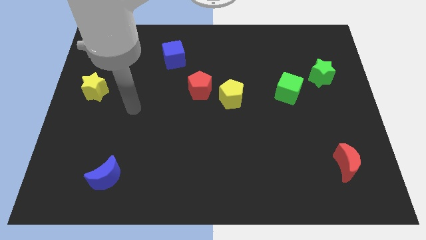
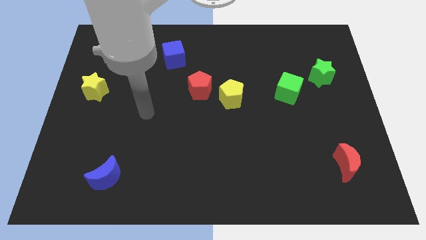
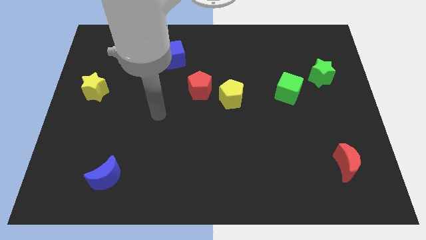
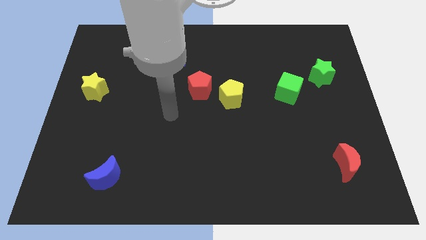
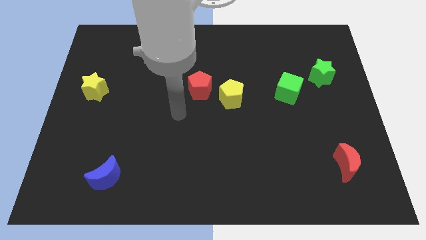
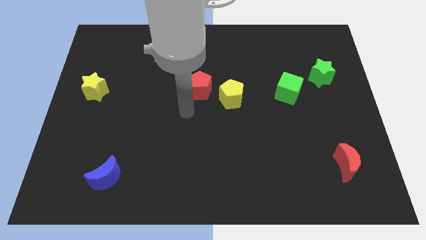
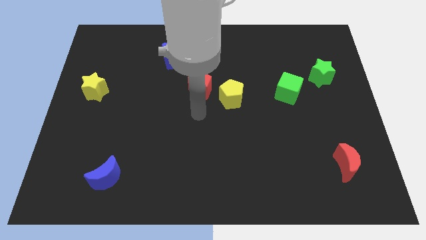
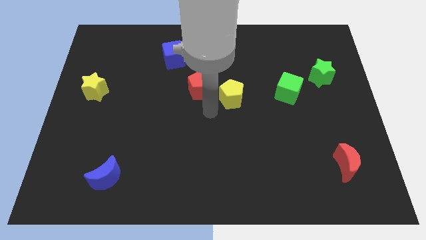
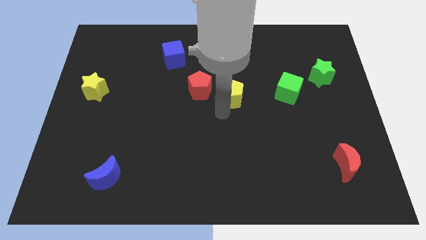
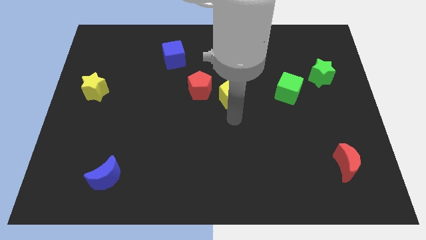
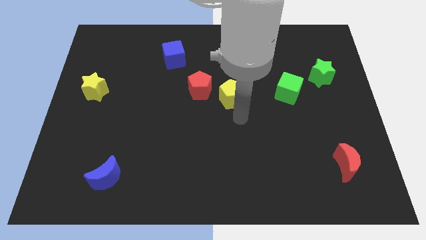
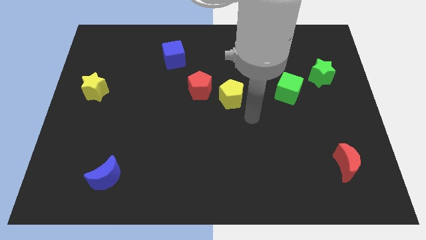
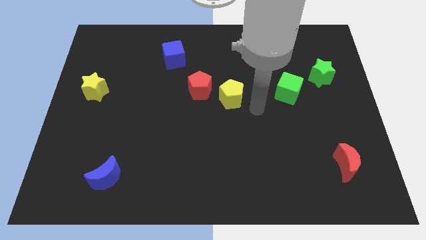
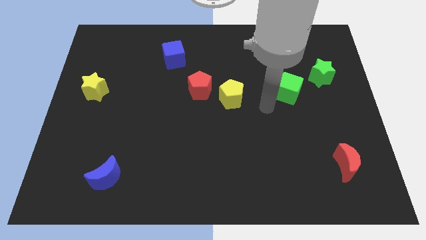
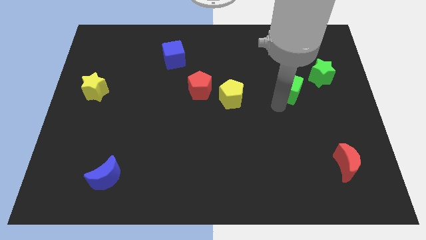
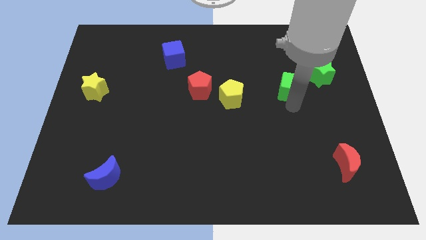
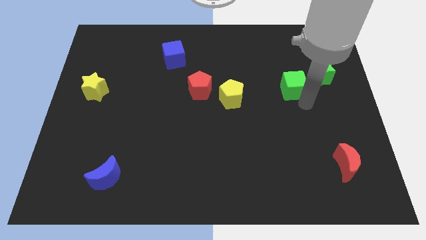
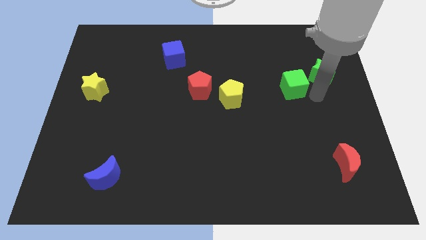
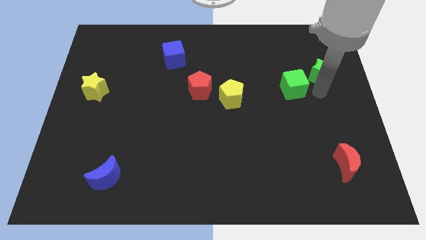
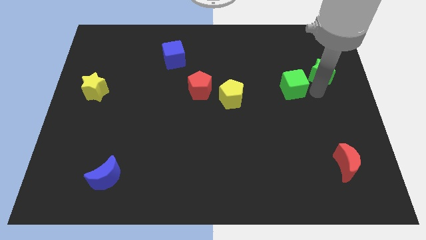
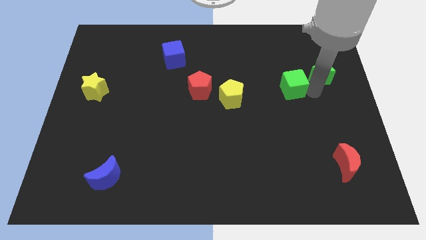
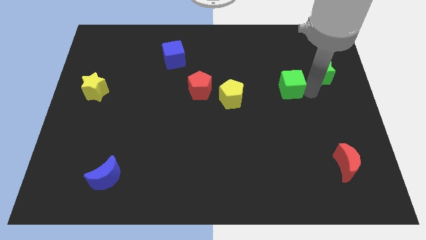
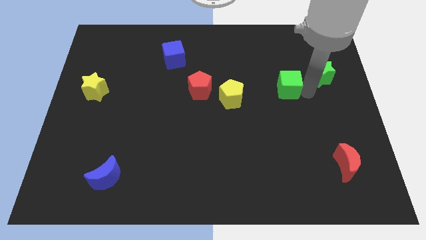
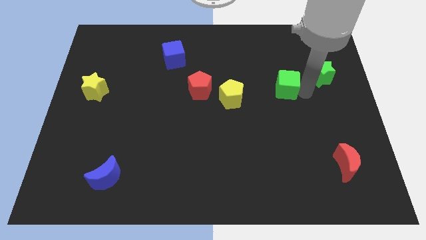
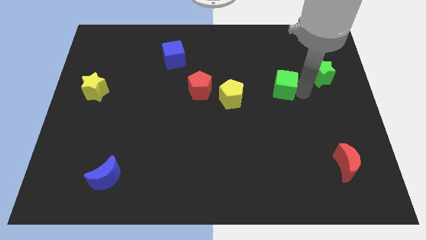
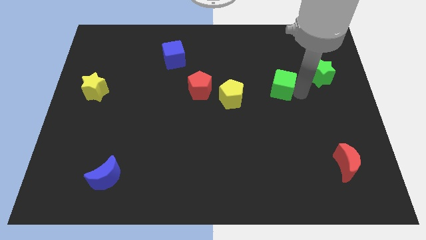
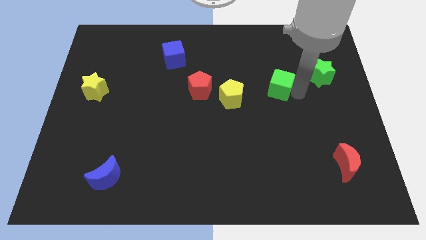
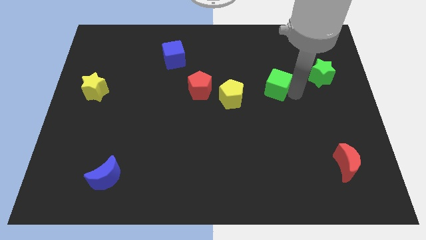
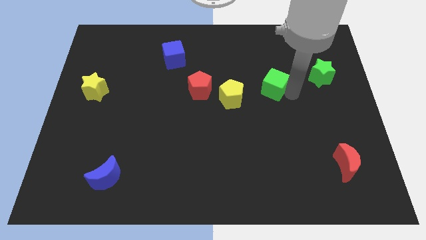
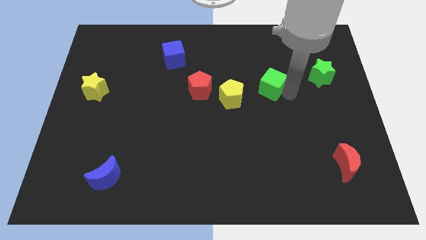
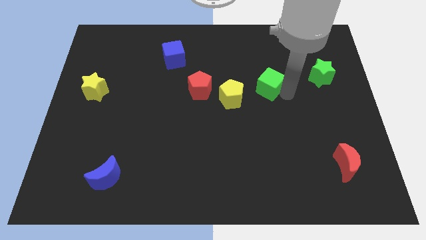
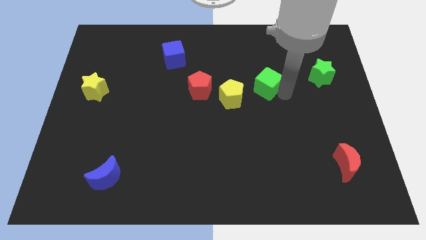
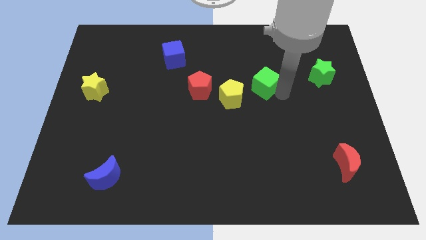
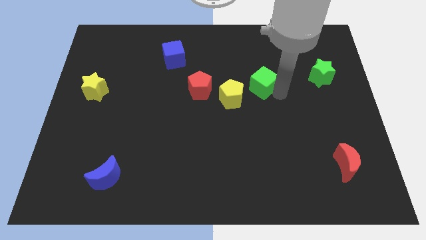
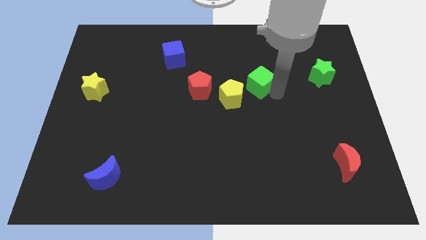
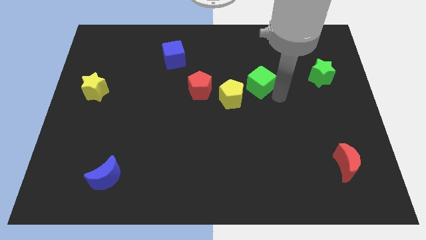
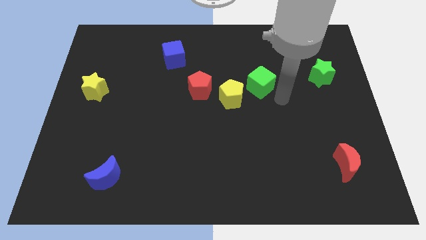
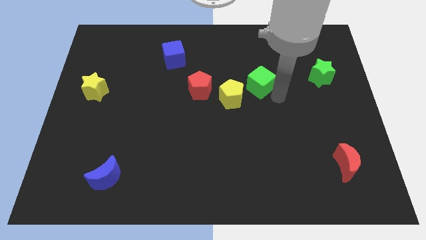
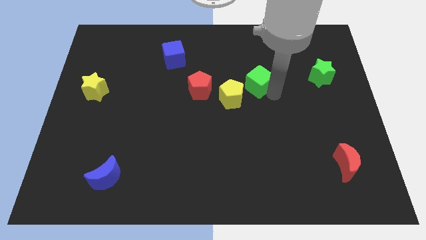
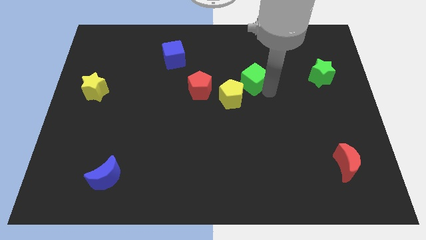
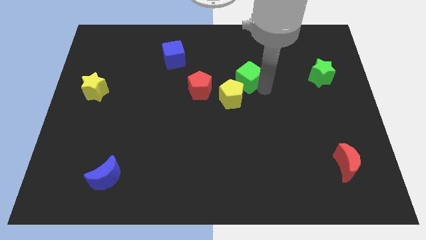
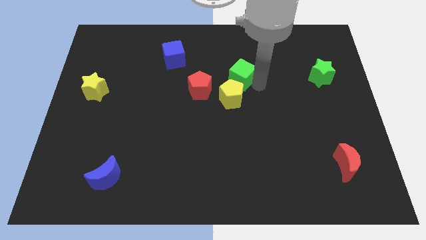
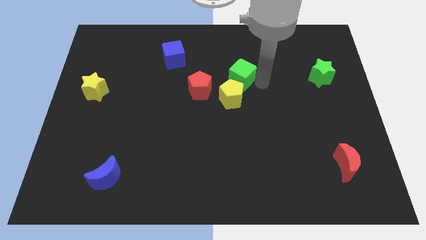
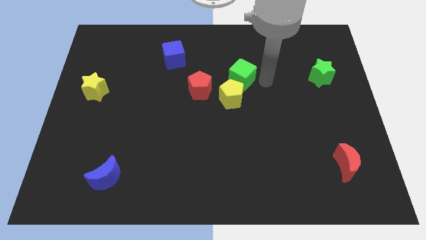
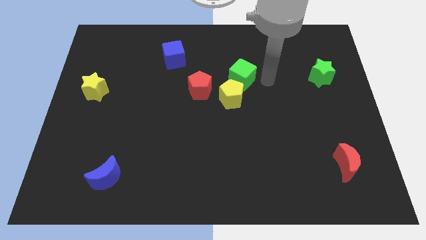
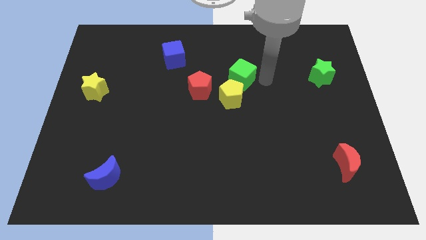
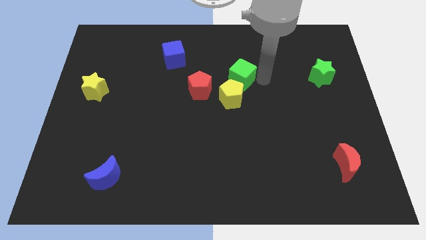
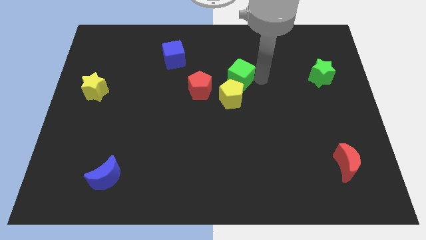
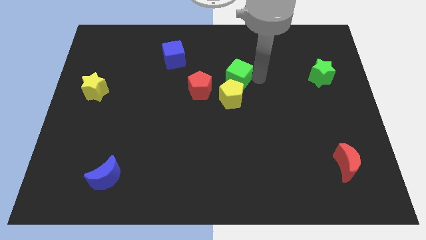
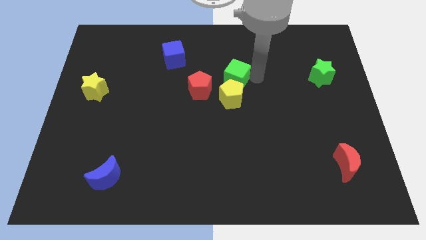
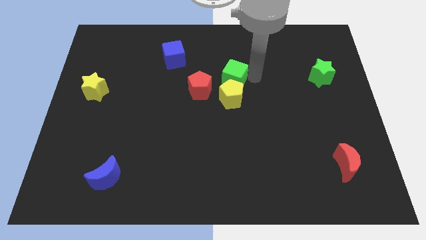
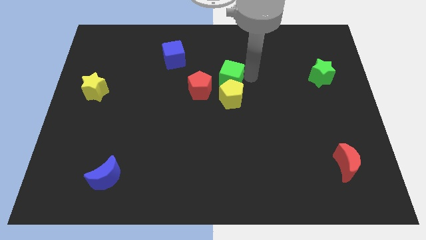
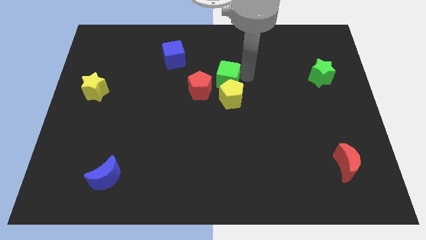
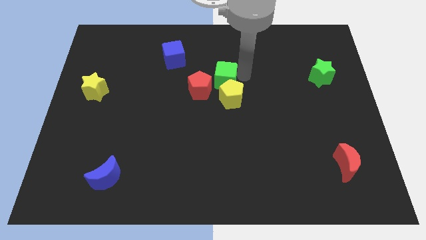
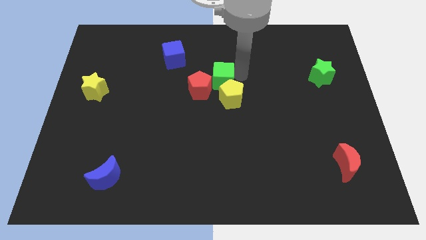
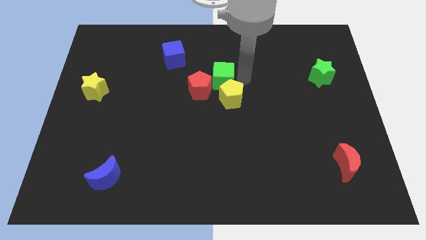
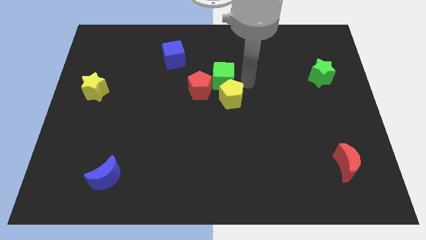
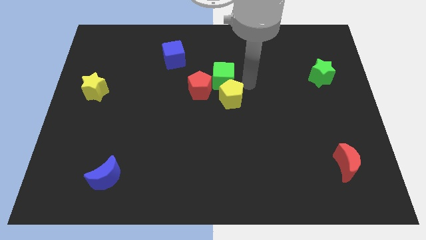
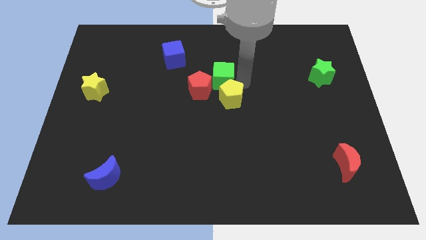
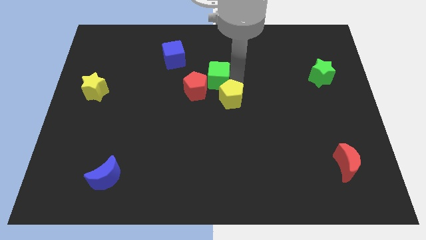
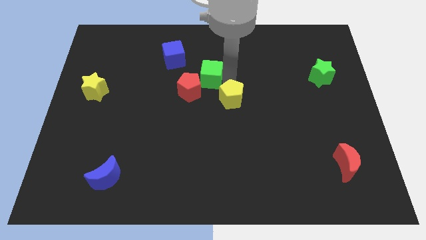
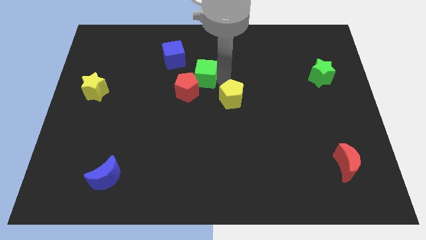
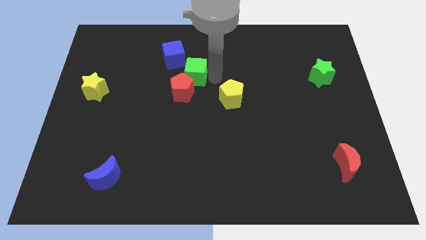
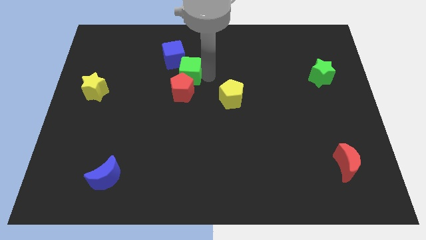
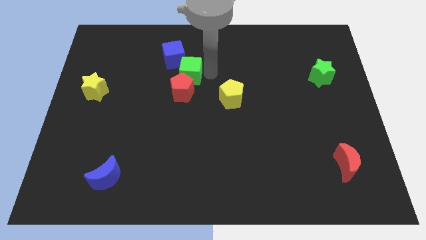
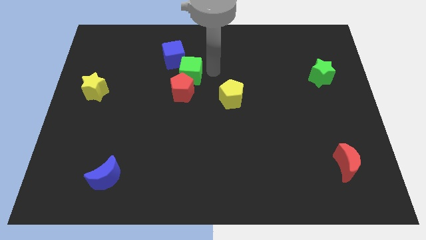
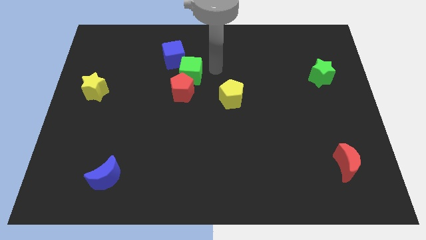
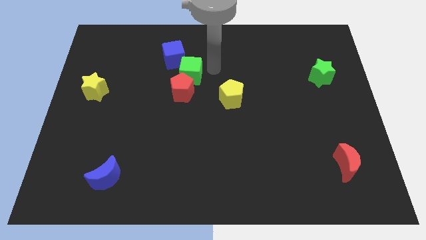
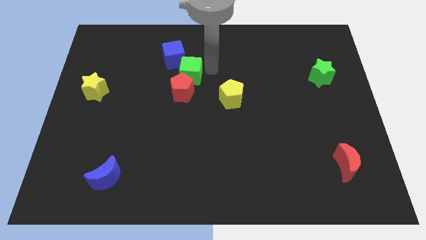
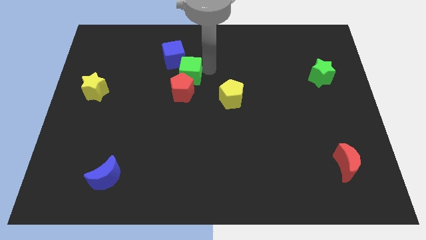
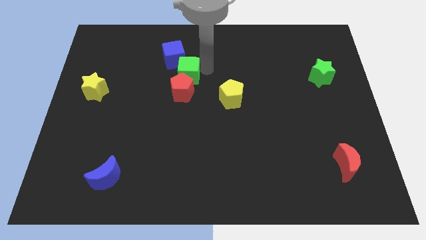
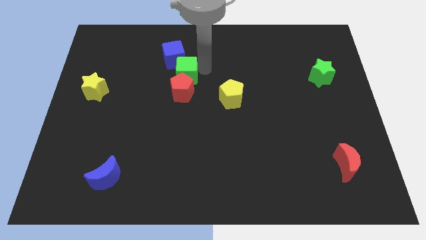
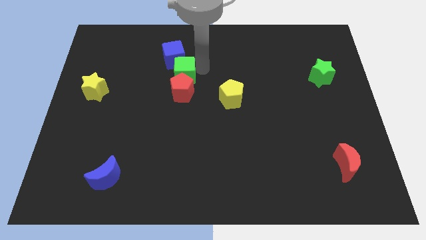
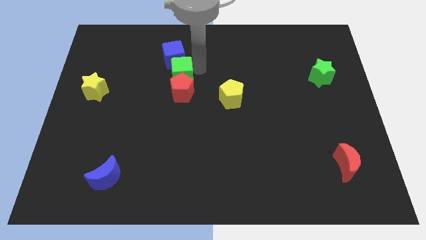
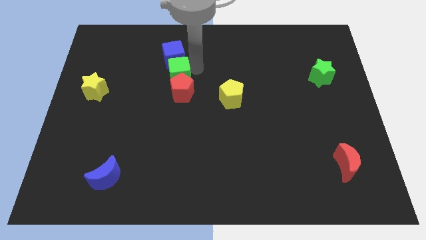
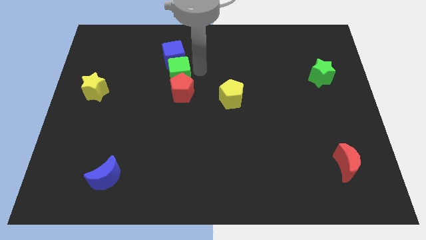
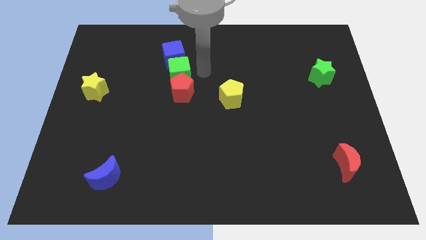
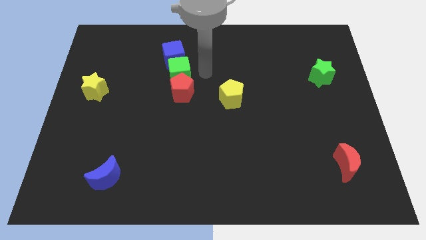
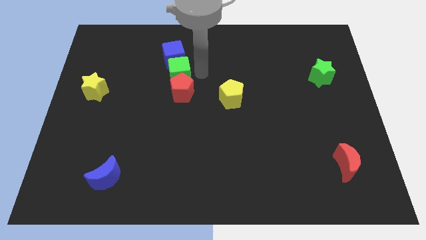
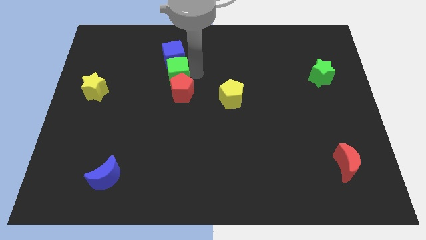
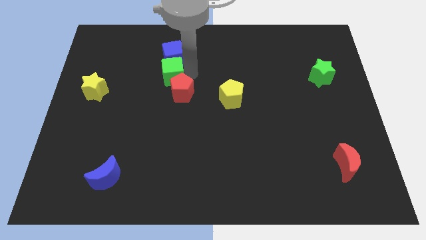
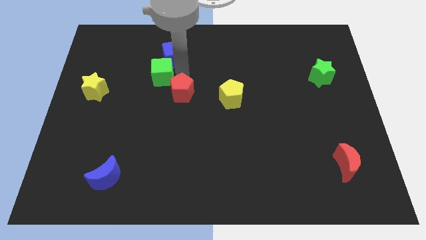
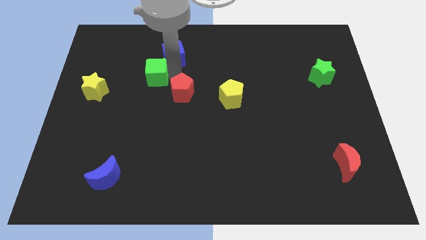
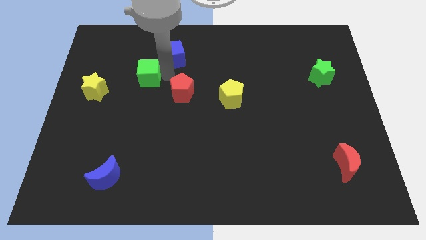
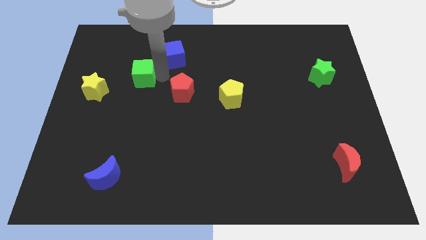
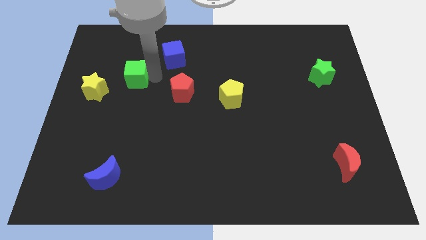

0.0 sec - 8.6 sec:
push the green cube to the top right side of the yellow star
